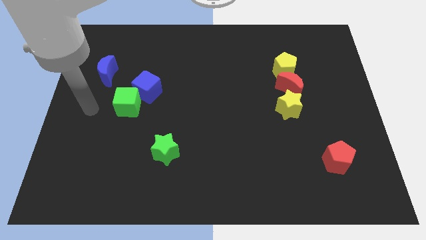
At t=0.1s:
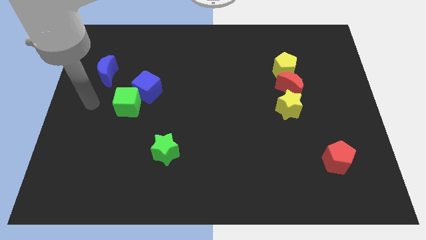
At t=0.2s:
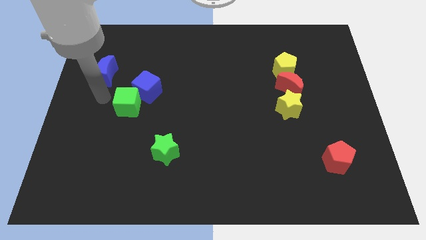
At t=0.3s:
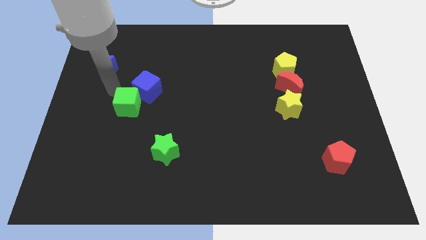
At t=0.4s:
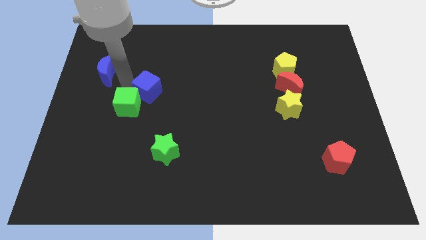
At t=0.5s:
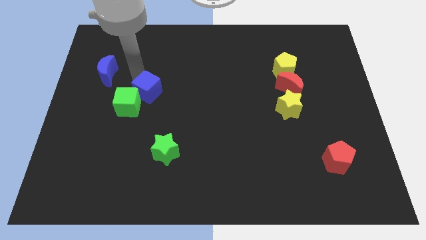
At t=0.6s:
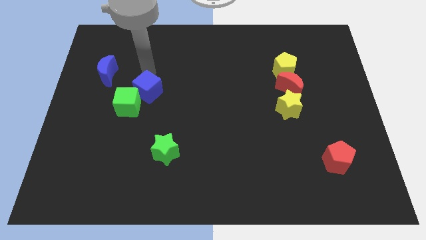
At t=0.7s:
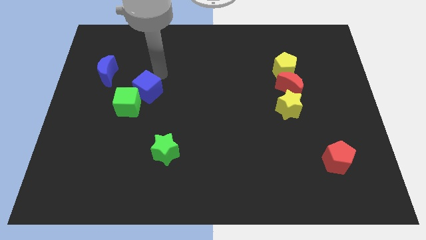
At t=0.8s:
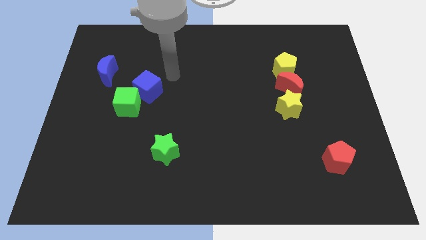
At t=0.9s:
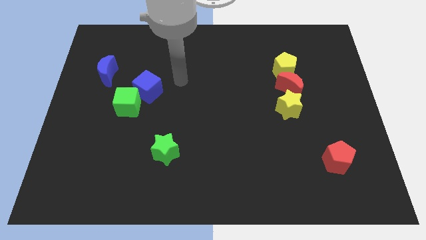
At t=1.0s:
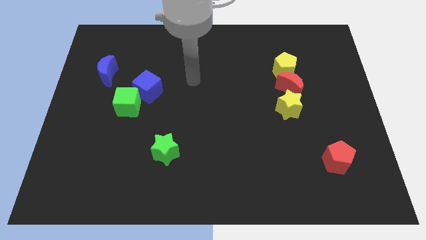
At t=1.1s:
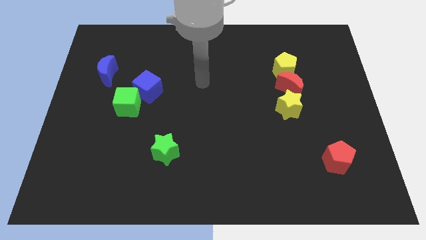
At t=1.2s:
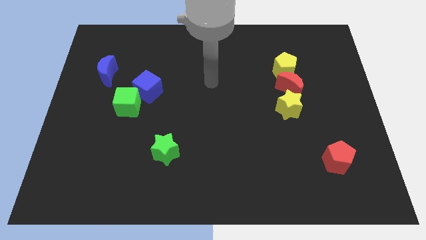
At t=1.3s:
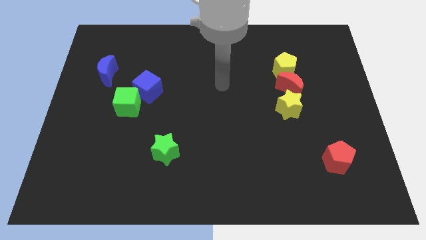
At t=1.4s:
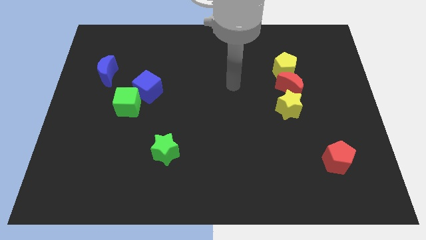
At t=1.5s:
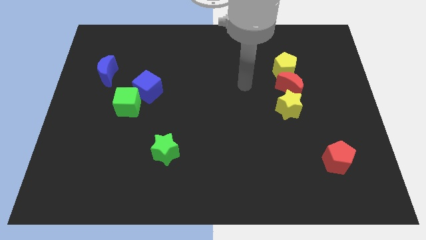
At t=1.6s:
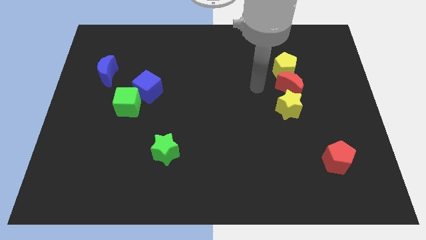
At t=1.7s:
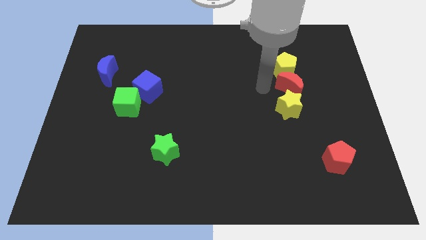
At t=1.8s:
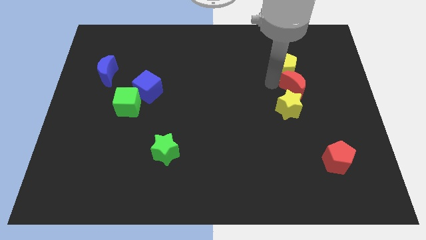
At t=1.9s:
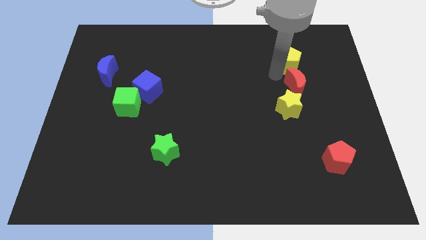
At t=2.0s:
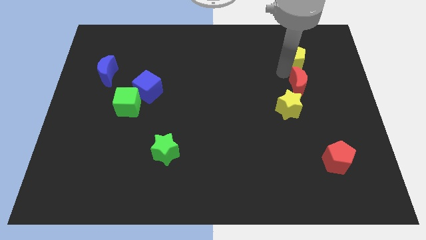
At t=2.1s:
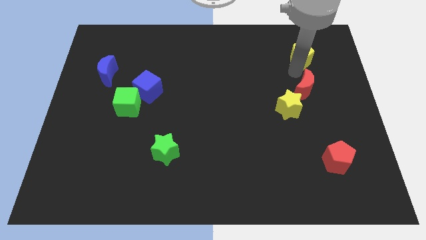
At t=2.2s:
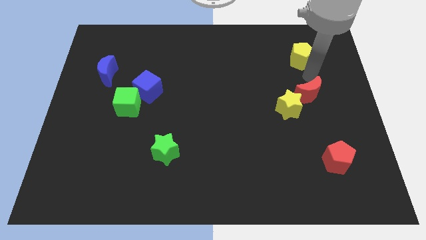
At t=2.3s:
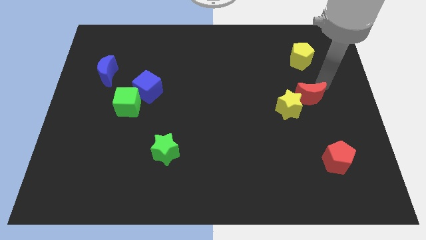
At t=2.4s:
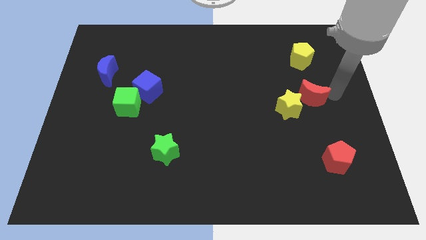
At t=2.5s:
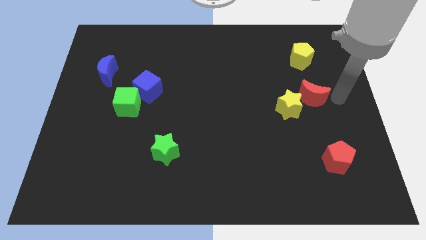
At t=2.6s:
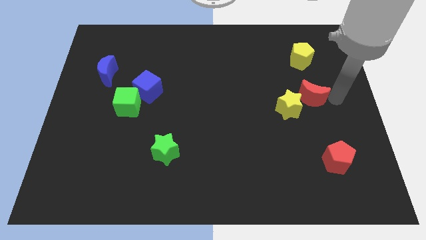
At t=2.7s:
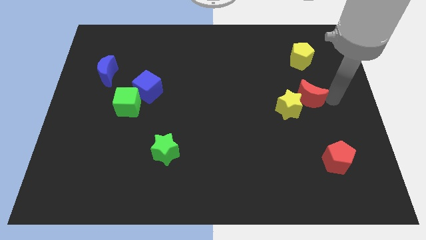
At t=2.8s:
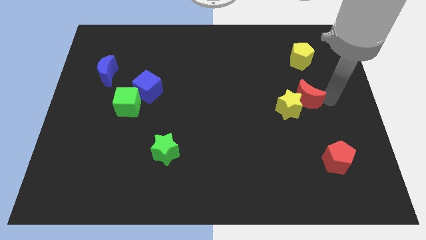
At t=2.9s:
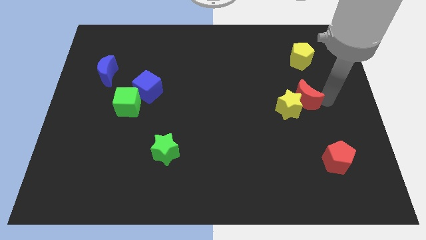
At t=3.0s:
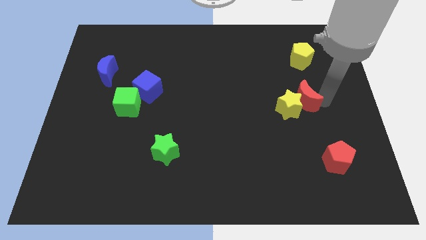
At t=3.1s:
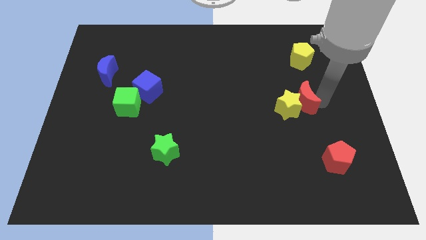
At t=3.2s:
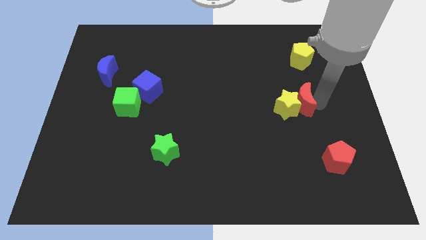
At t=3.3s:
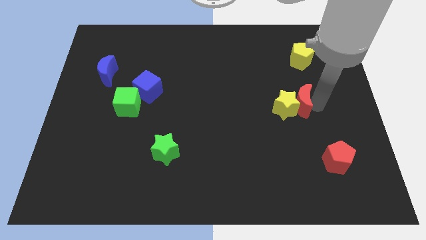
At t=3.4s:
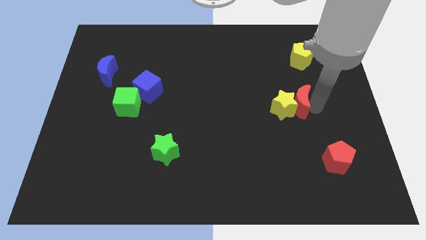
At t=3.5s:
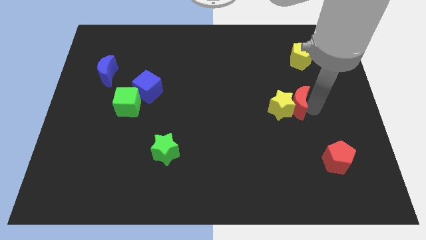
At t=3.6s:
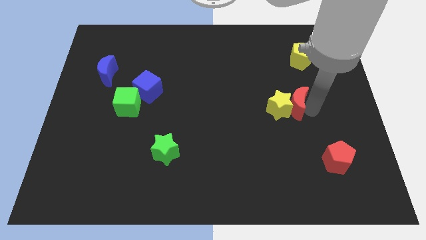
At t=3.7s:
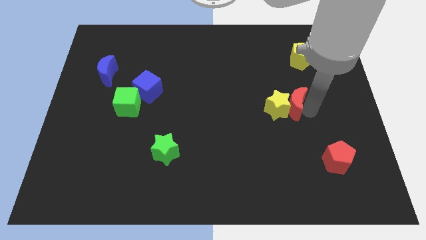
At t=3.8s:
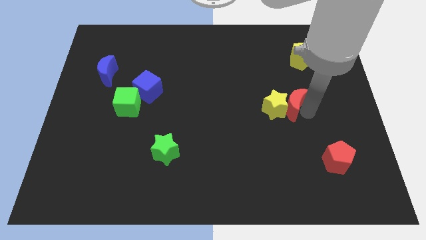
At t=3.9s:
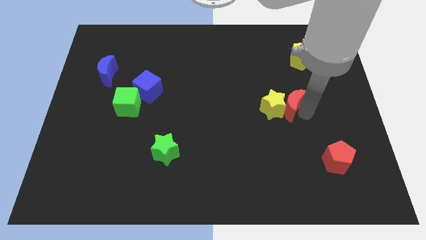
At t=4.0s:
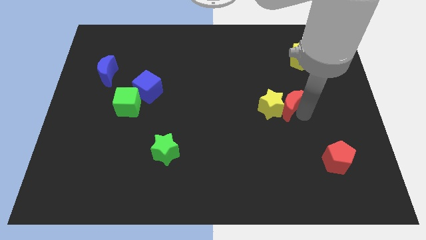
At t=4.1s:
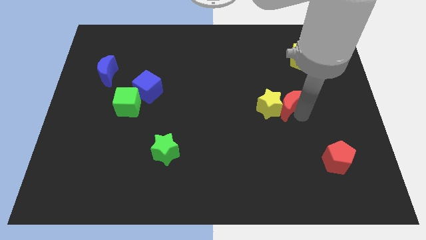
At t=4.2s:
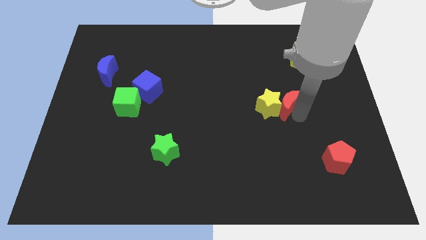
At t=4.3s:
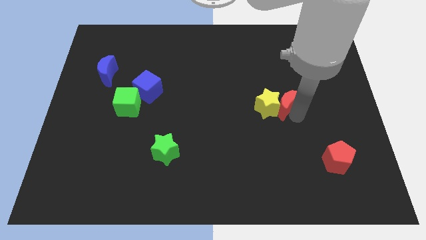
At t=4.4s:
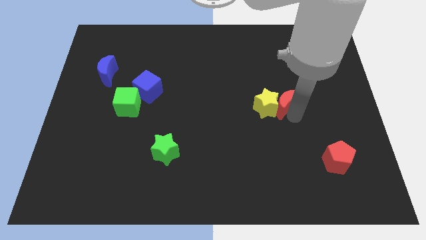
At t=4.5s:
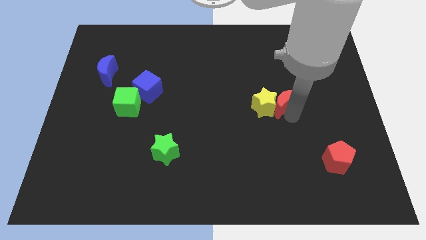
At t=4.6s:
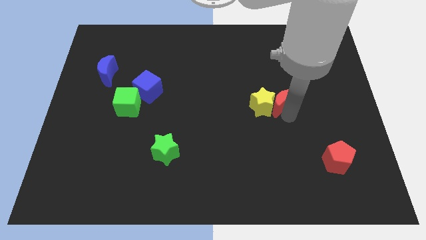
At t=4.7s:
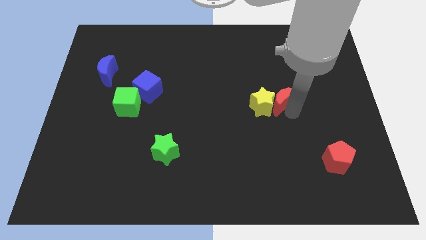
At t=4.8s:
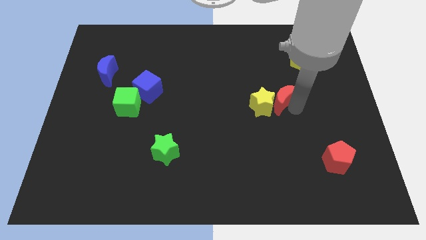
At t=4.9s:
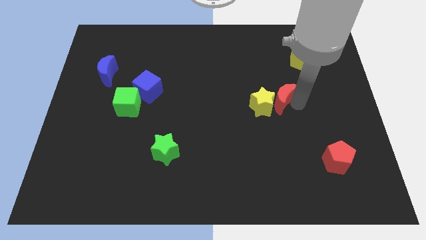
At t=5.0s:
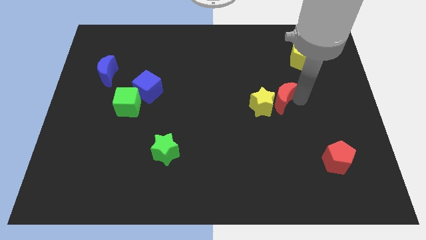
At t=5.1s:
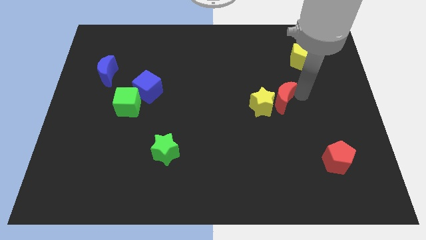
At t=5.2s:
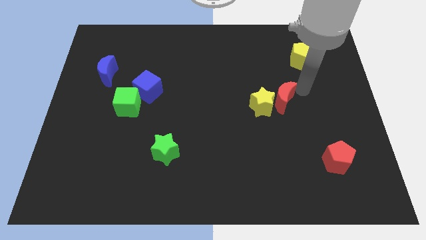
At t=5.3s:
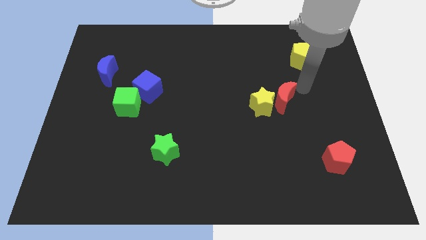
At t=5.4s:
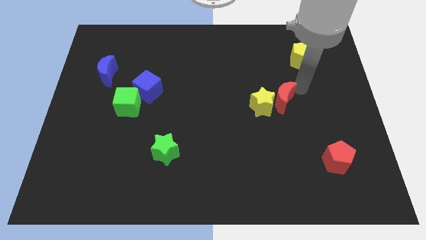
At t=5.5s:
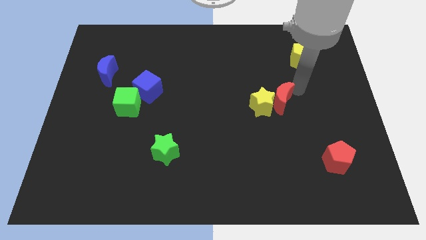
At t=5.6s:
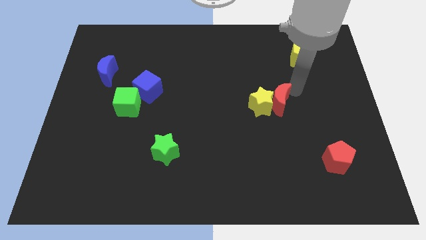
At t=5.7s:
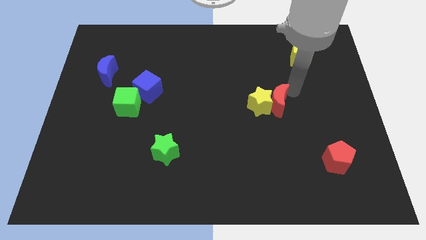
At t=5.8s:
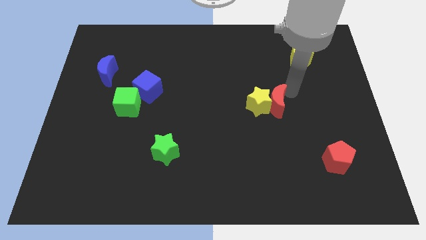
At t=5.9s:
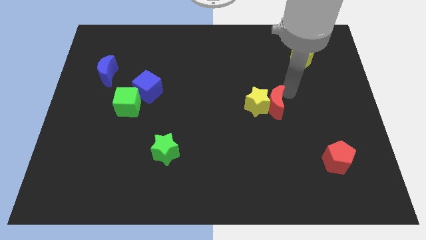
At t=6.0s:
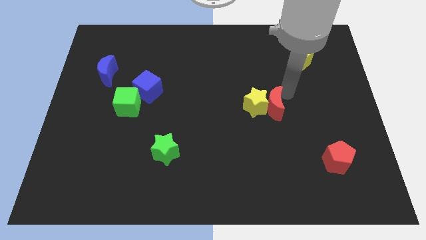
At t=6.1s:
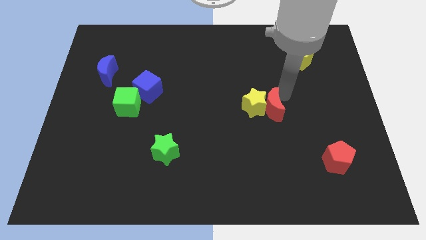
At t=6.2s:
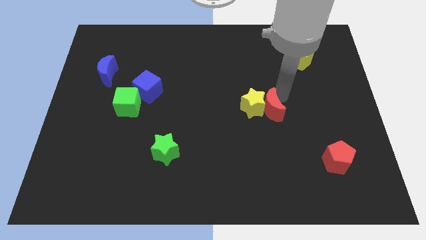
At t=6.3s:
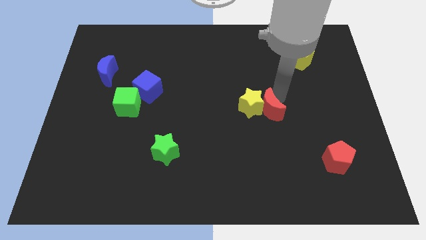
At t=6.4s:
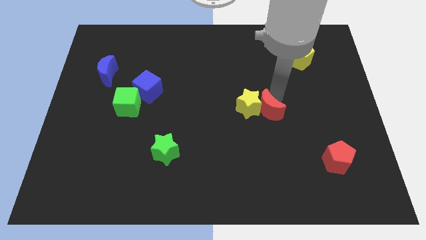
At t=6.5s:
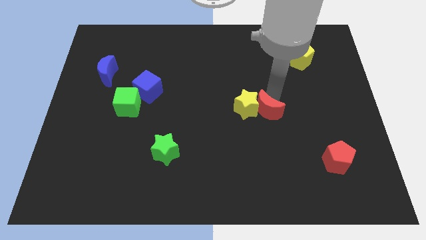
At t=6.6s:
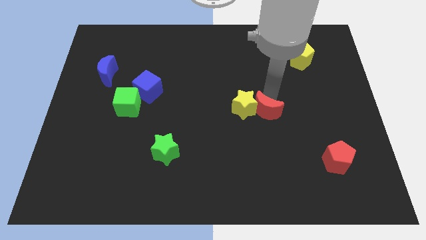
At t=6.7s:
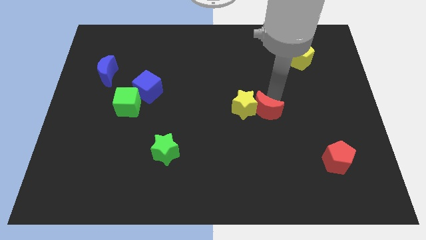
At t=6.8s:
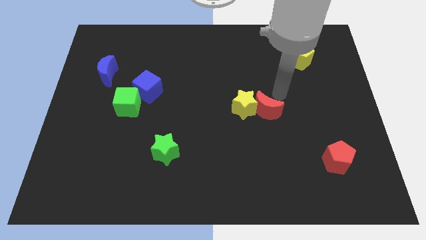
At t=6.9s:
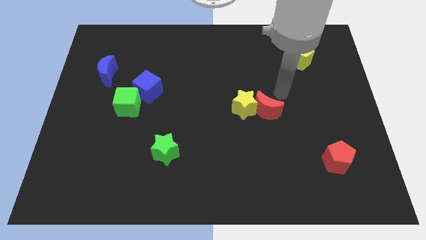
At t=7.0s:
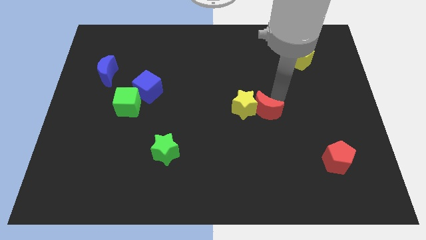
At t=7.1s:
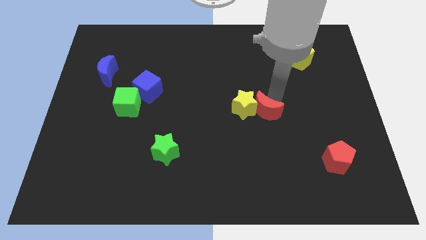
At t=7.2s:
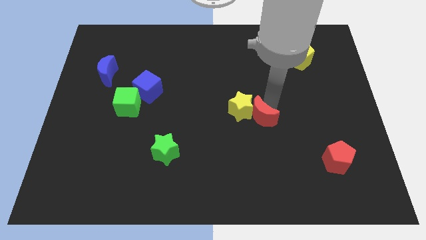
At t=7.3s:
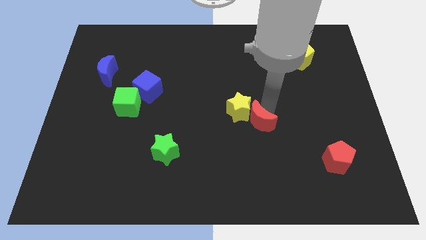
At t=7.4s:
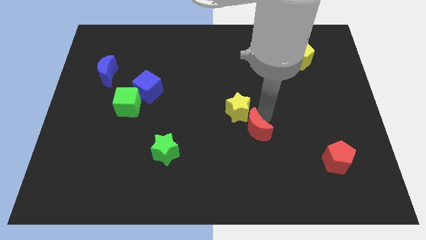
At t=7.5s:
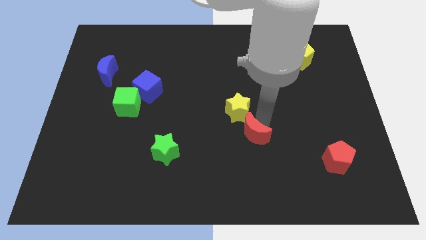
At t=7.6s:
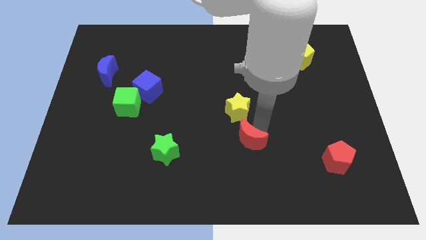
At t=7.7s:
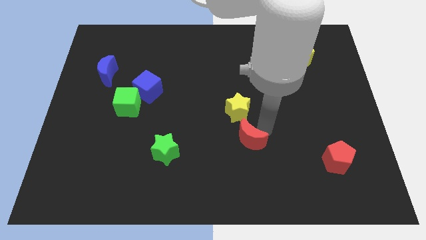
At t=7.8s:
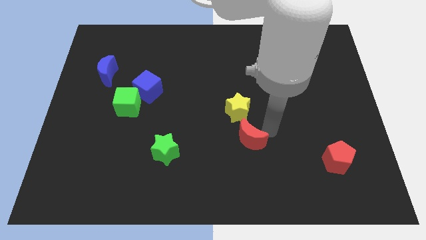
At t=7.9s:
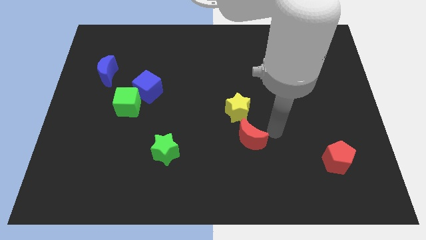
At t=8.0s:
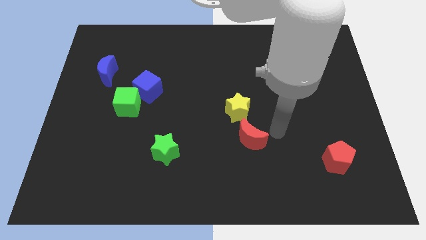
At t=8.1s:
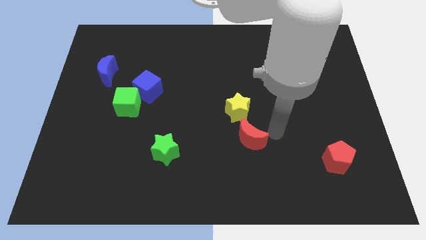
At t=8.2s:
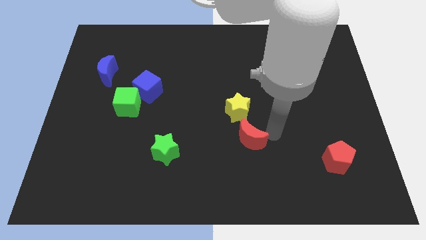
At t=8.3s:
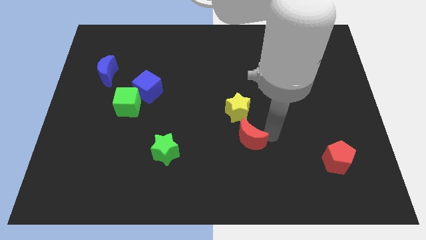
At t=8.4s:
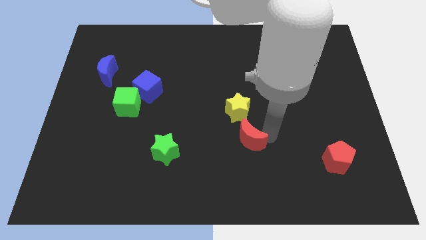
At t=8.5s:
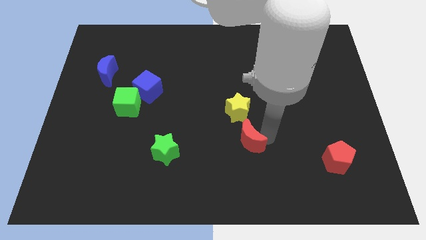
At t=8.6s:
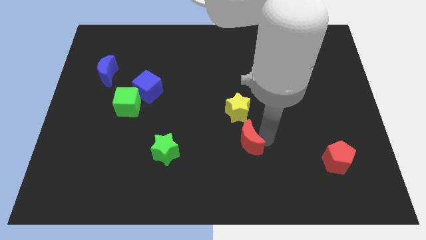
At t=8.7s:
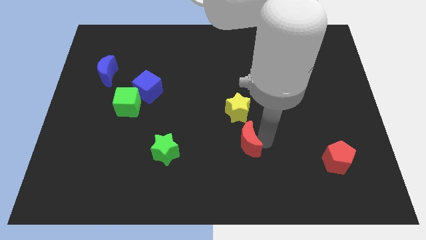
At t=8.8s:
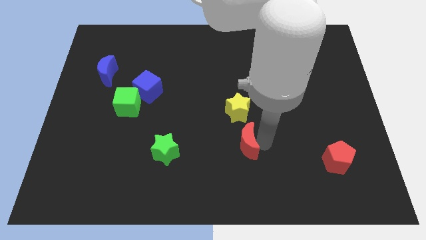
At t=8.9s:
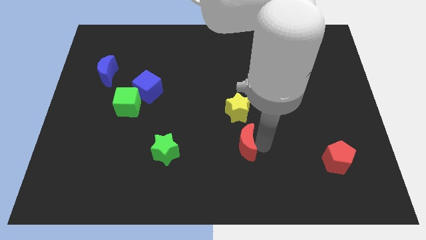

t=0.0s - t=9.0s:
move the red moon downwards and left
